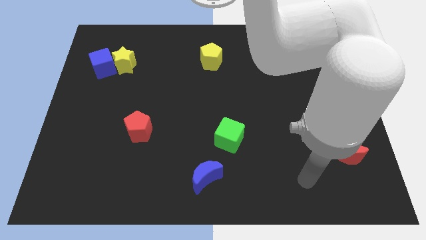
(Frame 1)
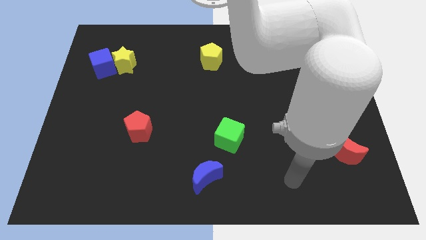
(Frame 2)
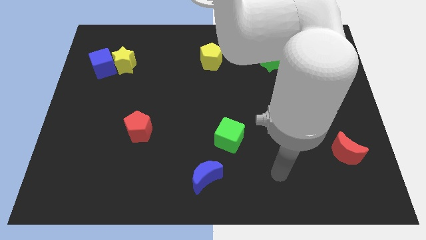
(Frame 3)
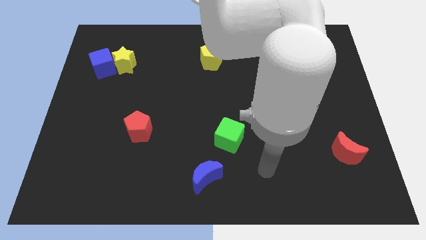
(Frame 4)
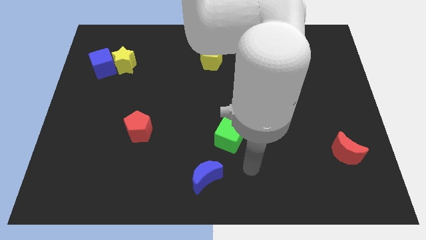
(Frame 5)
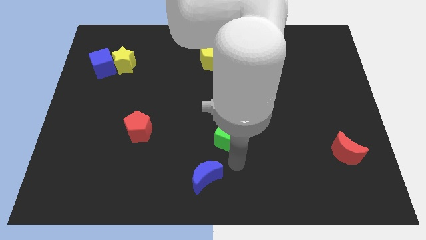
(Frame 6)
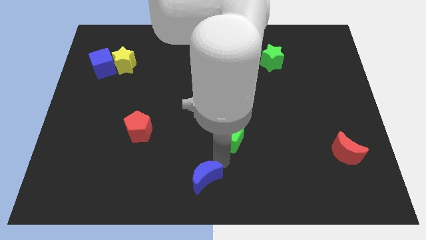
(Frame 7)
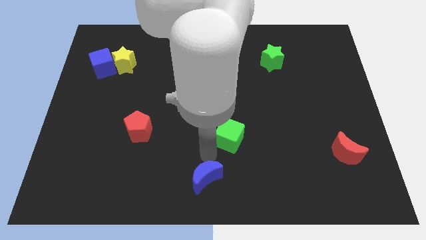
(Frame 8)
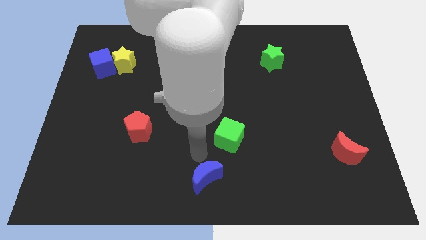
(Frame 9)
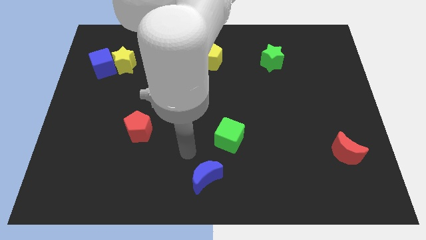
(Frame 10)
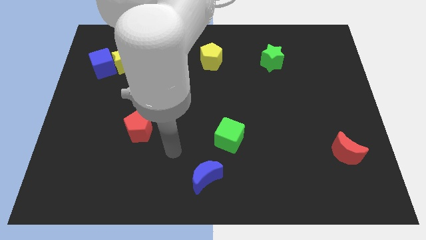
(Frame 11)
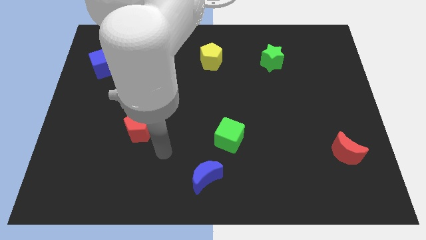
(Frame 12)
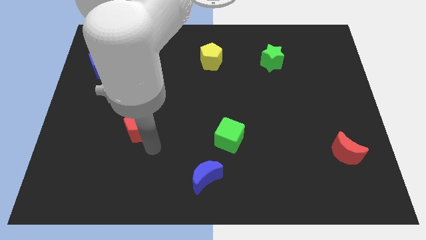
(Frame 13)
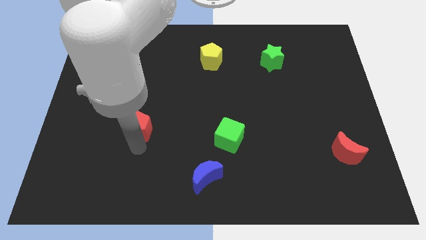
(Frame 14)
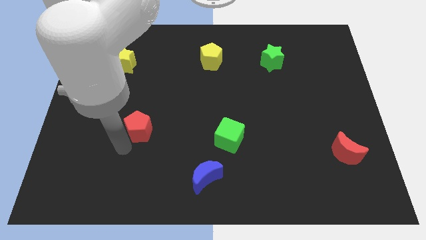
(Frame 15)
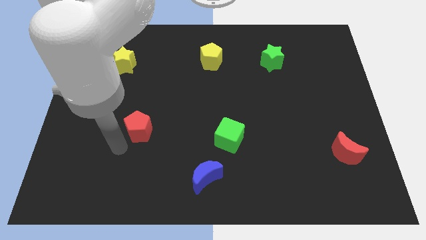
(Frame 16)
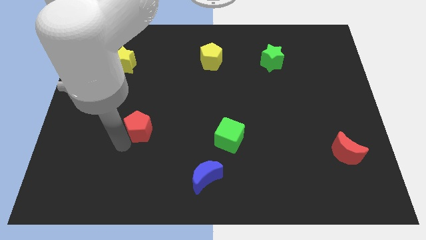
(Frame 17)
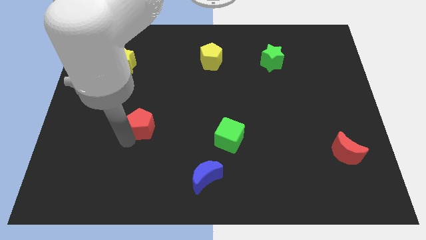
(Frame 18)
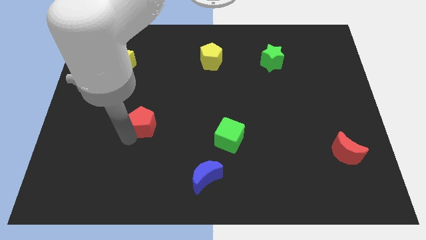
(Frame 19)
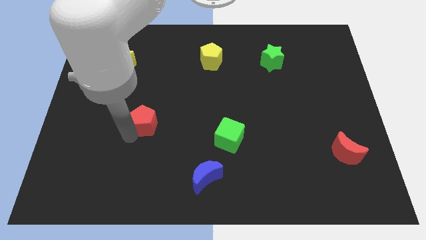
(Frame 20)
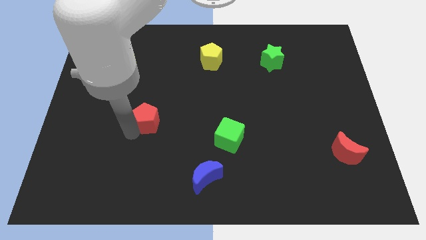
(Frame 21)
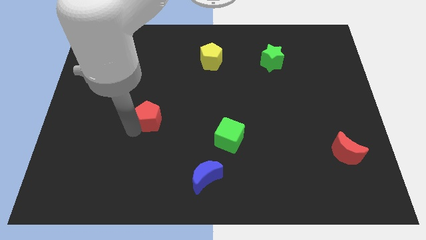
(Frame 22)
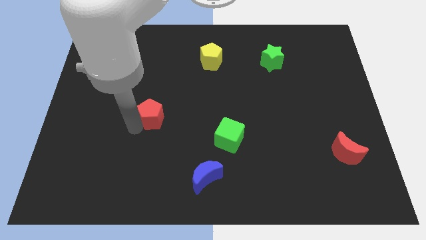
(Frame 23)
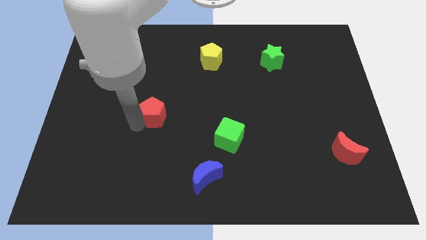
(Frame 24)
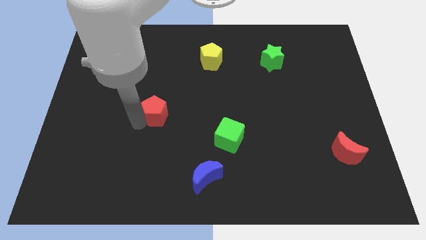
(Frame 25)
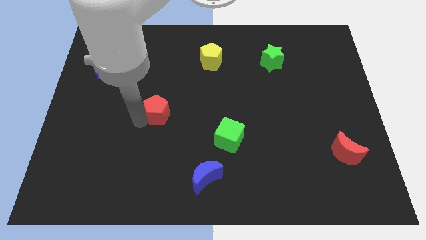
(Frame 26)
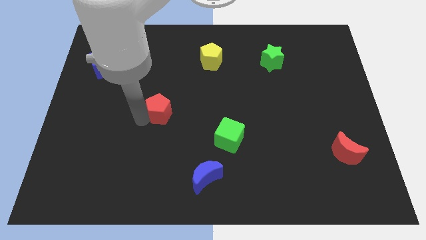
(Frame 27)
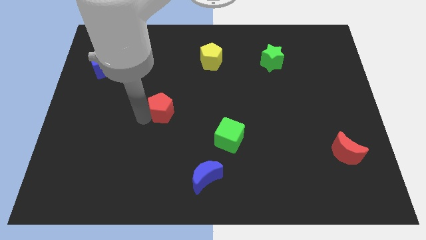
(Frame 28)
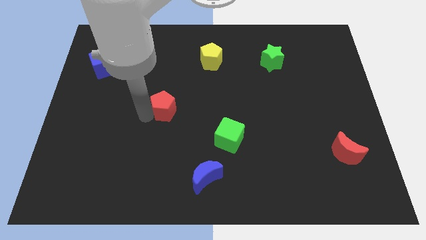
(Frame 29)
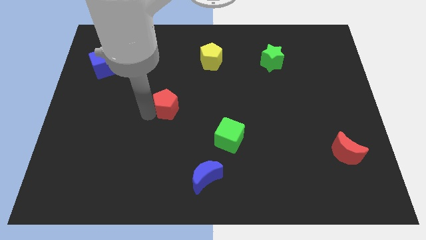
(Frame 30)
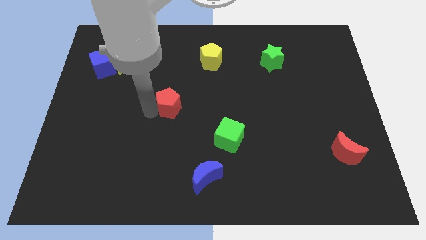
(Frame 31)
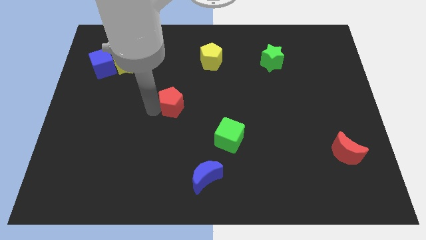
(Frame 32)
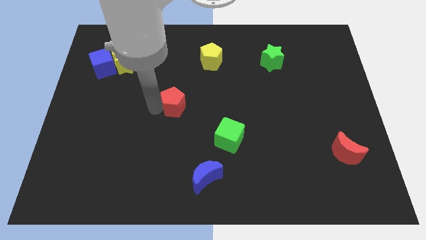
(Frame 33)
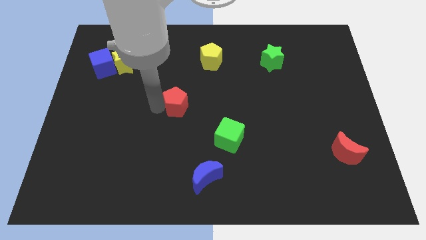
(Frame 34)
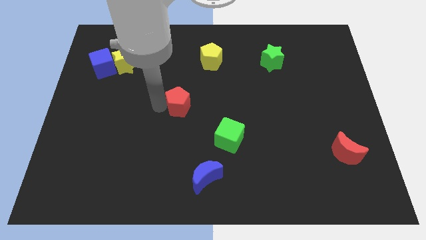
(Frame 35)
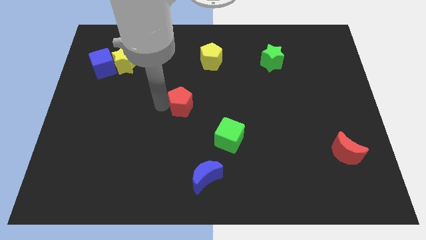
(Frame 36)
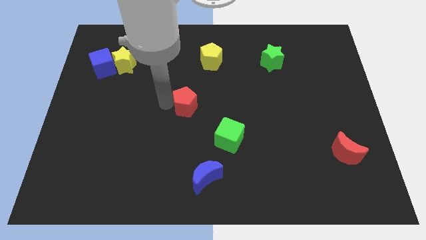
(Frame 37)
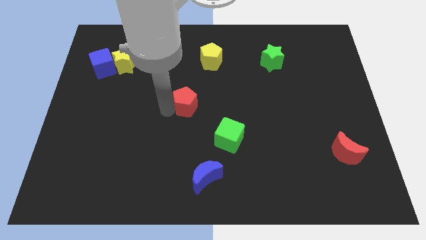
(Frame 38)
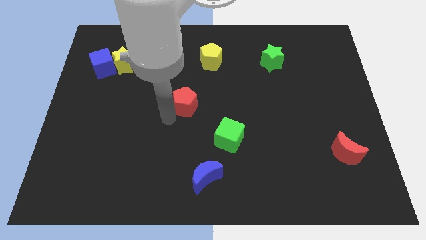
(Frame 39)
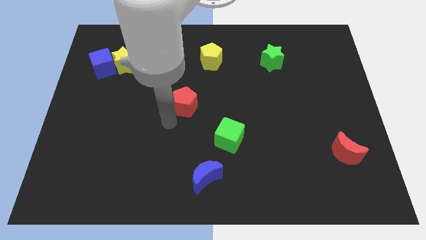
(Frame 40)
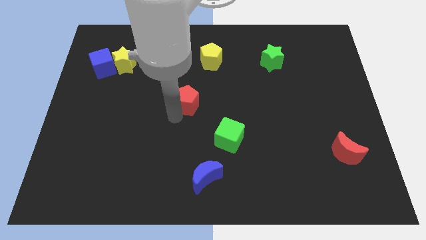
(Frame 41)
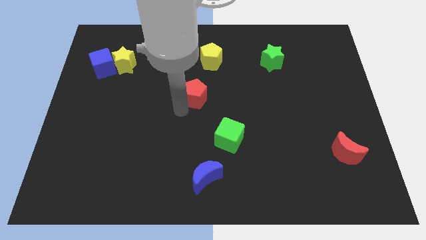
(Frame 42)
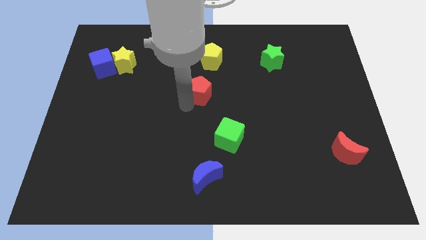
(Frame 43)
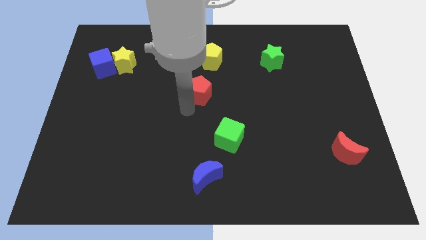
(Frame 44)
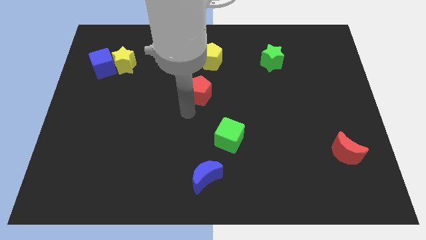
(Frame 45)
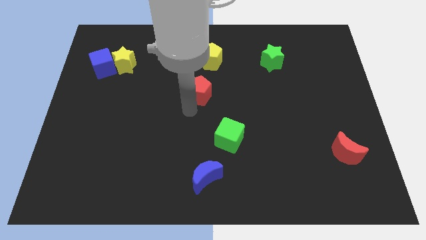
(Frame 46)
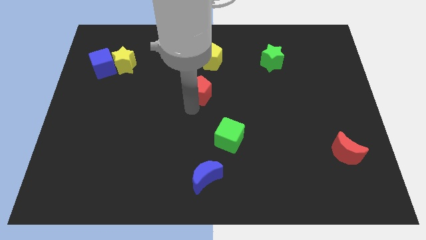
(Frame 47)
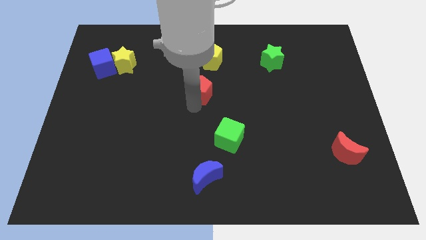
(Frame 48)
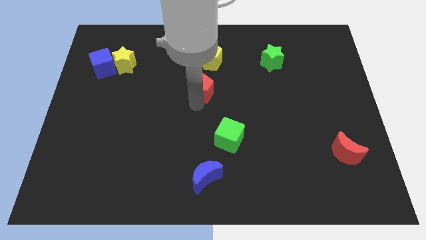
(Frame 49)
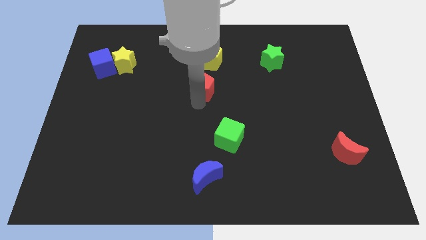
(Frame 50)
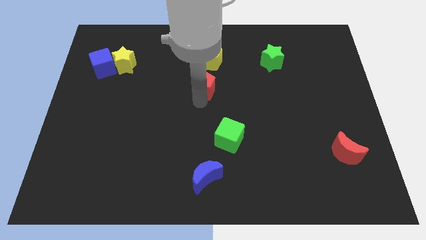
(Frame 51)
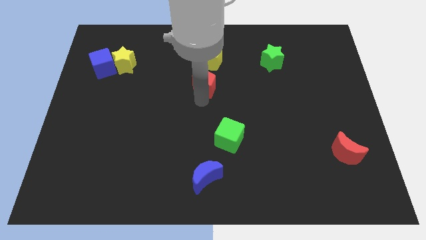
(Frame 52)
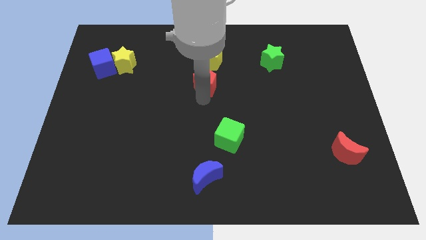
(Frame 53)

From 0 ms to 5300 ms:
push the red pentagon upwards and right

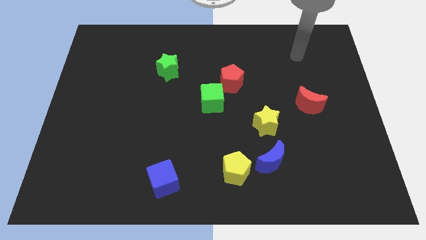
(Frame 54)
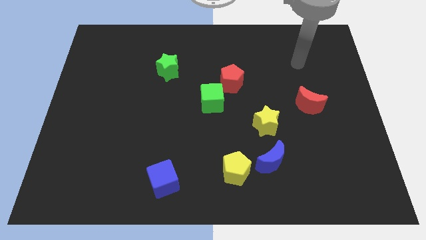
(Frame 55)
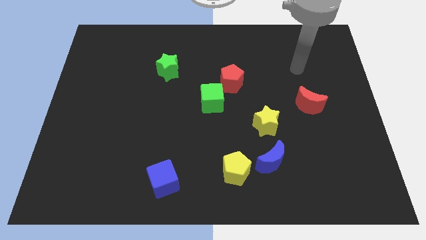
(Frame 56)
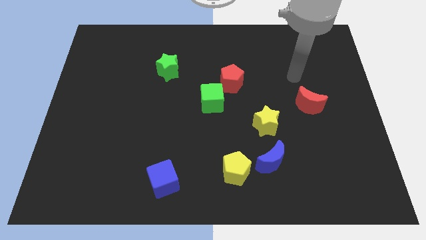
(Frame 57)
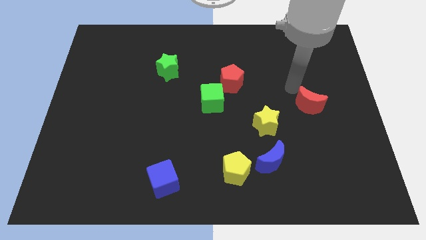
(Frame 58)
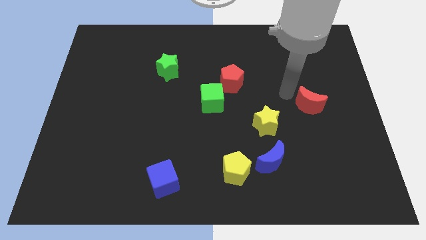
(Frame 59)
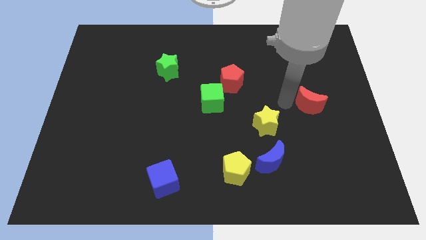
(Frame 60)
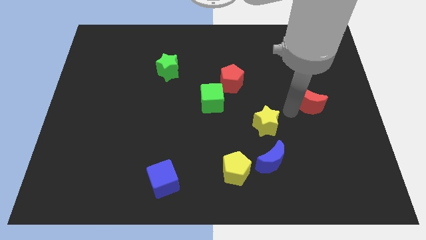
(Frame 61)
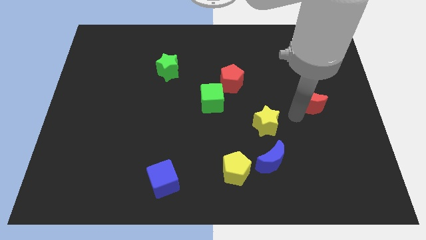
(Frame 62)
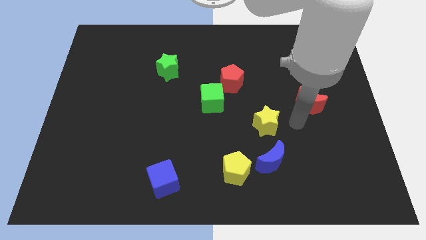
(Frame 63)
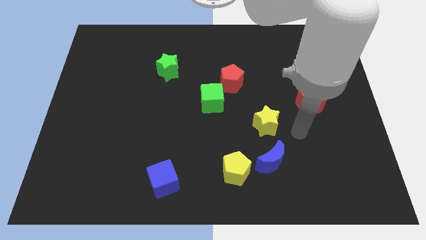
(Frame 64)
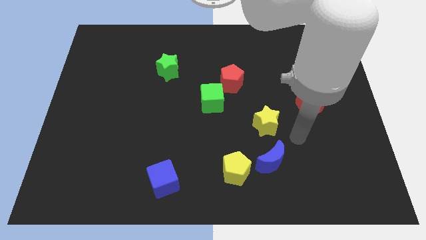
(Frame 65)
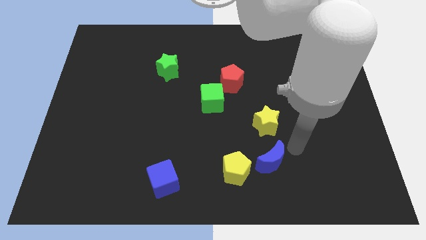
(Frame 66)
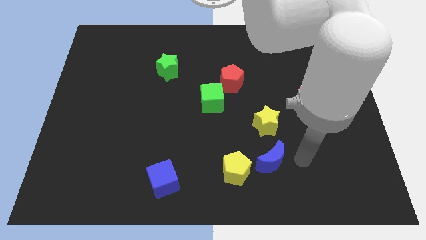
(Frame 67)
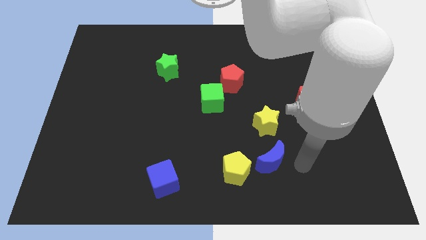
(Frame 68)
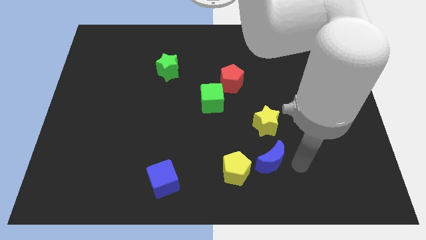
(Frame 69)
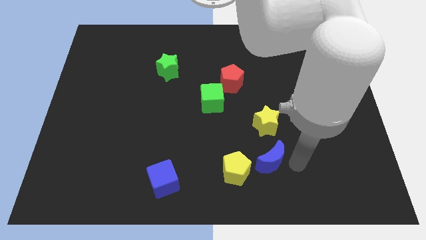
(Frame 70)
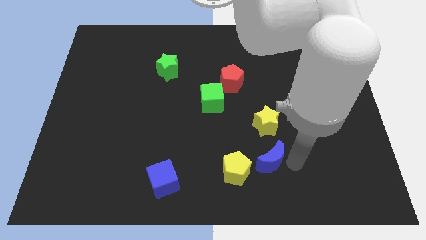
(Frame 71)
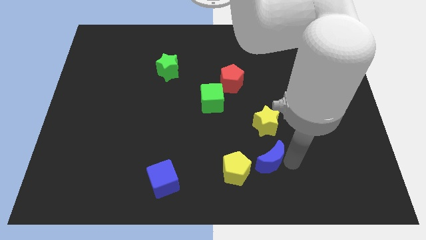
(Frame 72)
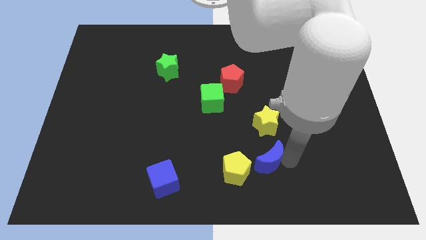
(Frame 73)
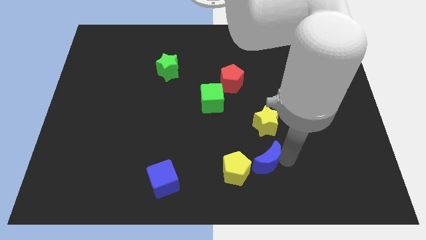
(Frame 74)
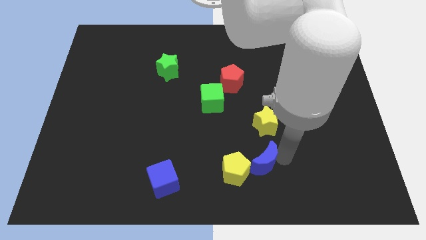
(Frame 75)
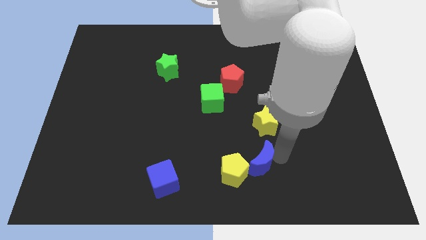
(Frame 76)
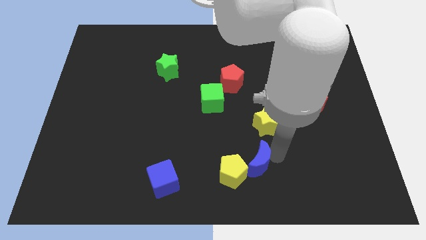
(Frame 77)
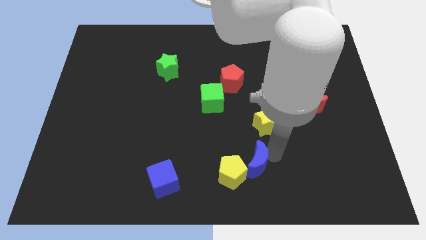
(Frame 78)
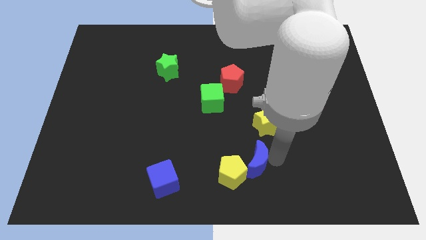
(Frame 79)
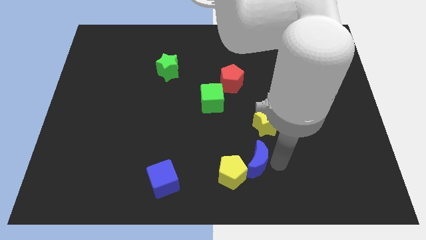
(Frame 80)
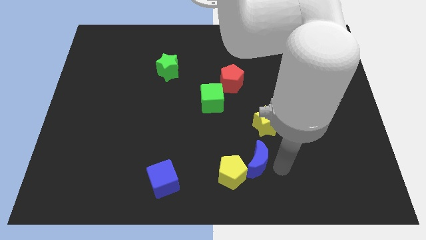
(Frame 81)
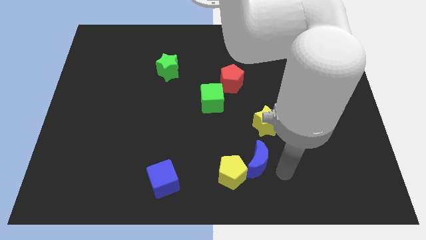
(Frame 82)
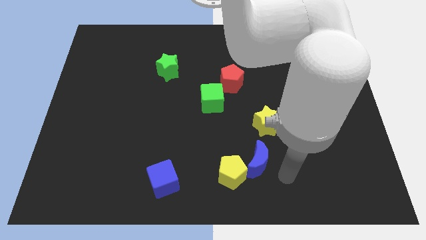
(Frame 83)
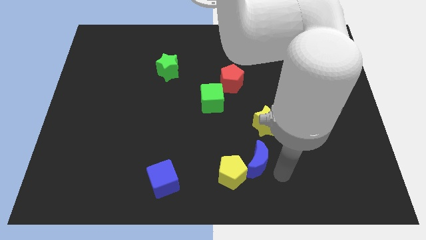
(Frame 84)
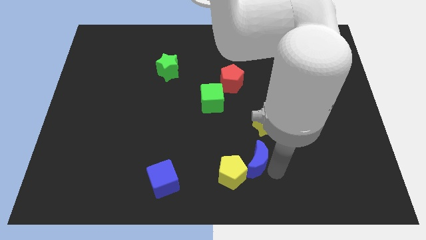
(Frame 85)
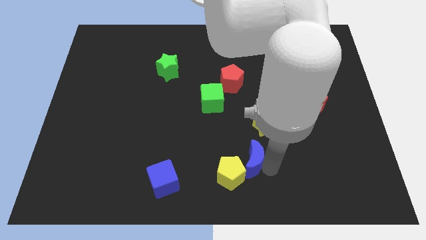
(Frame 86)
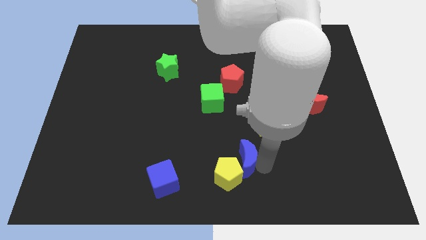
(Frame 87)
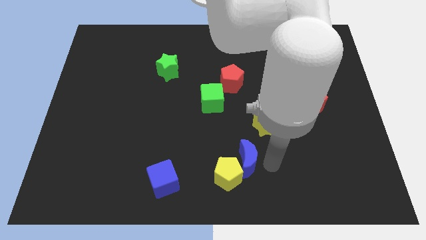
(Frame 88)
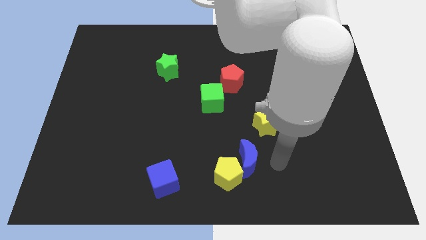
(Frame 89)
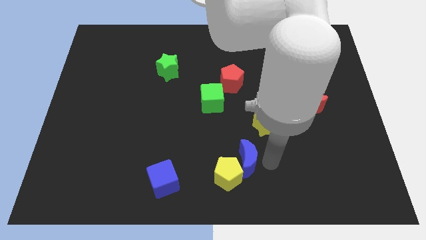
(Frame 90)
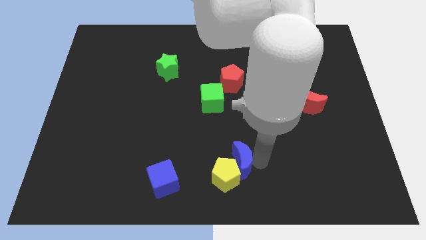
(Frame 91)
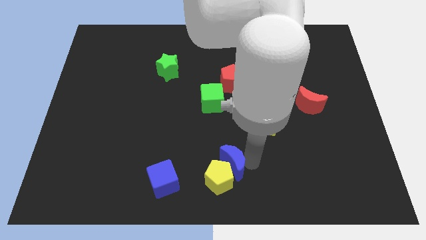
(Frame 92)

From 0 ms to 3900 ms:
push the blue moon a bit to the left
